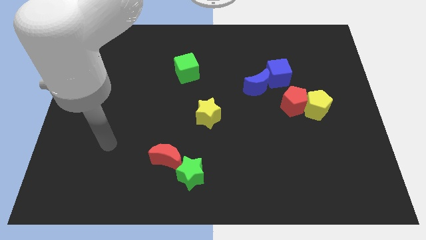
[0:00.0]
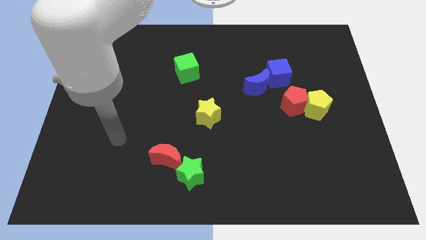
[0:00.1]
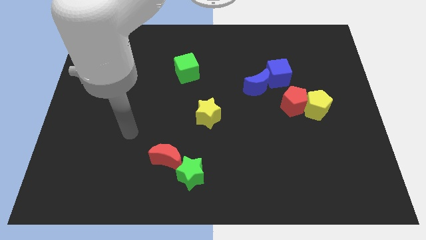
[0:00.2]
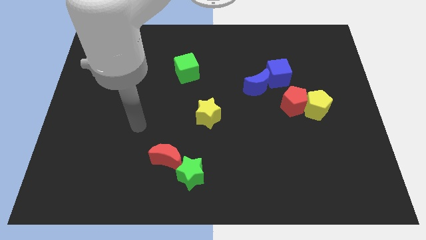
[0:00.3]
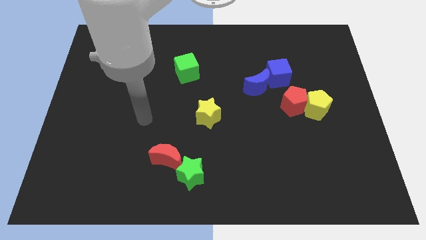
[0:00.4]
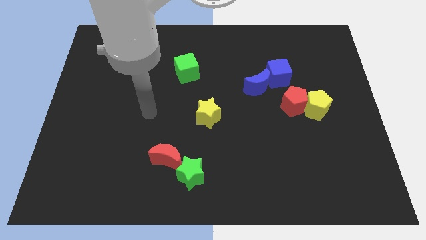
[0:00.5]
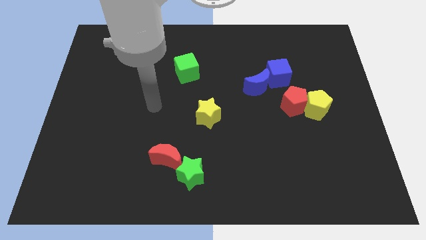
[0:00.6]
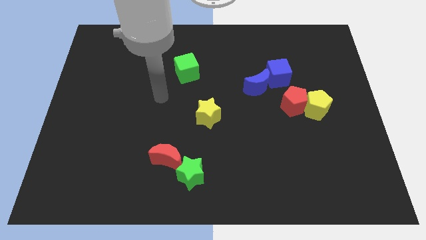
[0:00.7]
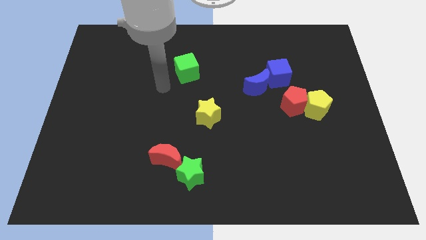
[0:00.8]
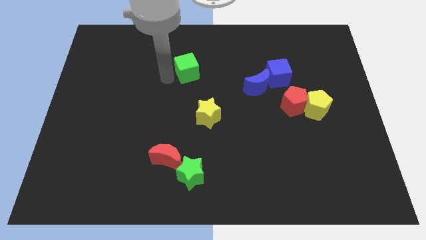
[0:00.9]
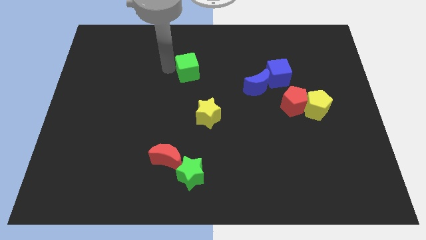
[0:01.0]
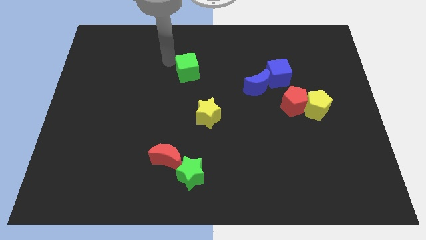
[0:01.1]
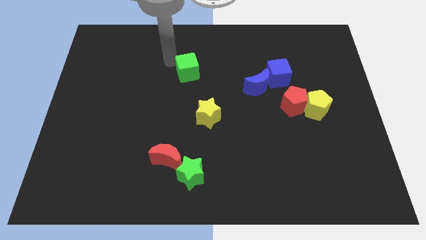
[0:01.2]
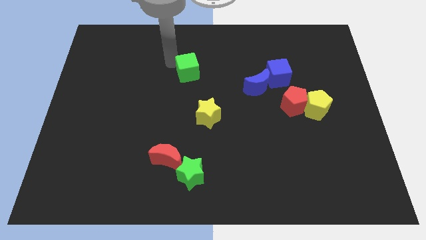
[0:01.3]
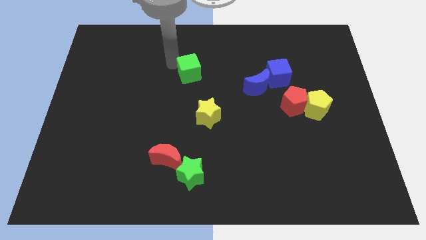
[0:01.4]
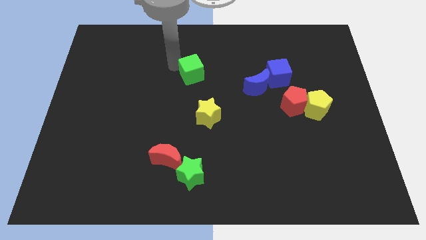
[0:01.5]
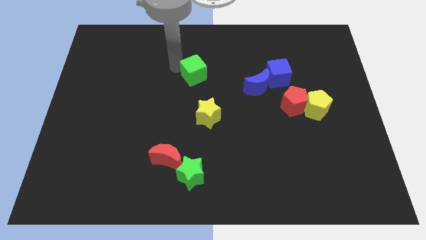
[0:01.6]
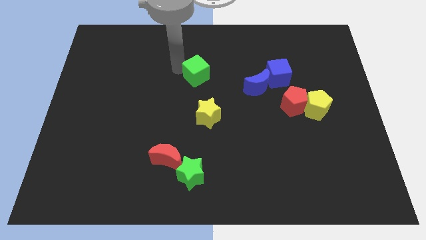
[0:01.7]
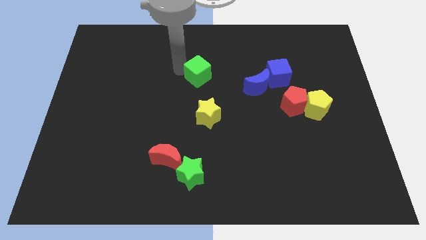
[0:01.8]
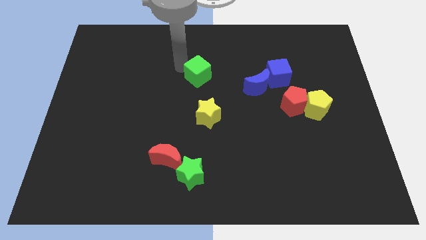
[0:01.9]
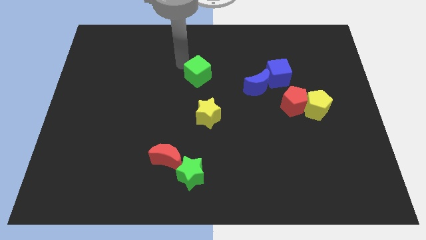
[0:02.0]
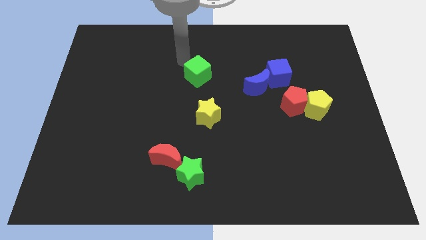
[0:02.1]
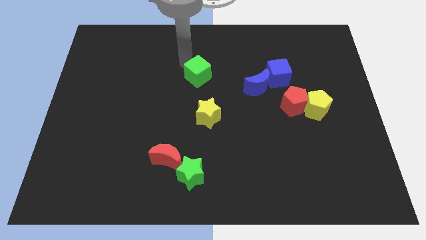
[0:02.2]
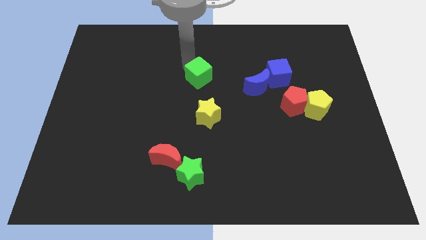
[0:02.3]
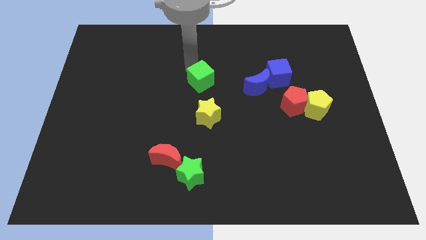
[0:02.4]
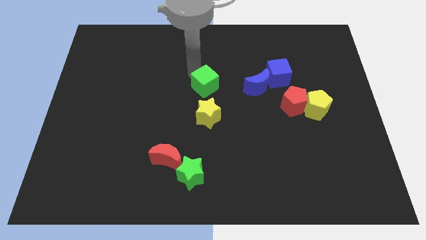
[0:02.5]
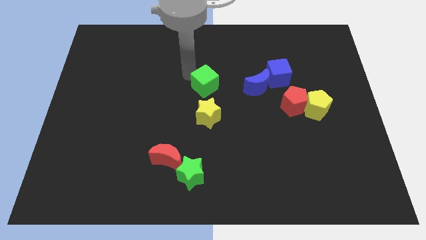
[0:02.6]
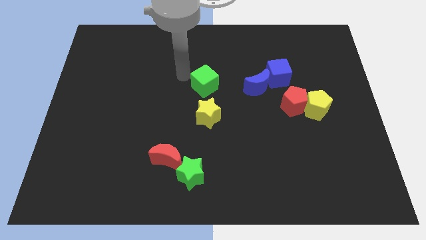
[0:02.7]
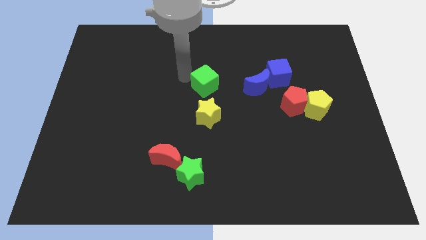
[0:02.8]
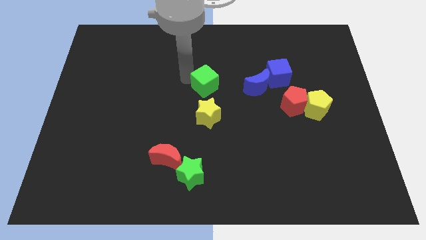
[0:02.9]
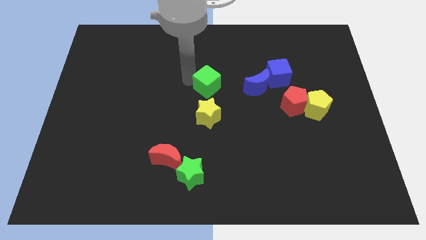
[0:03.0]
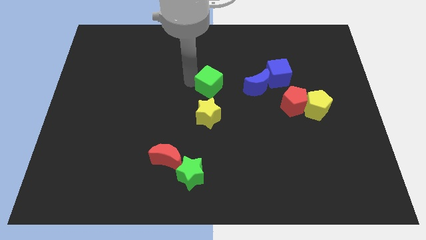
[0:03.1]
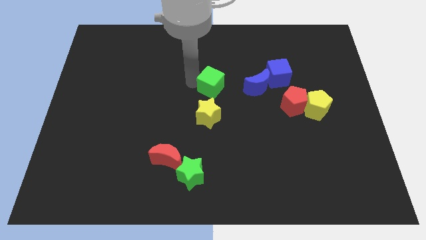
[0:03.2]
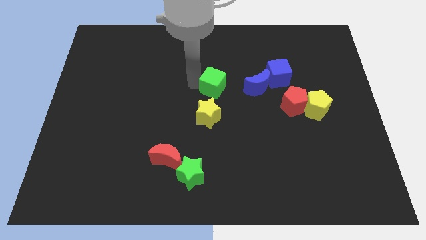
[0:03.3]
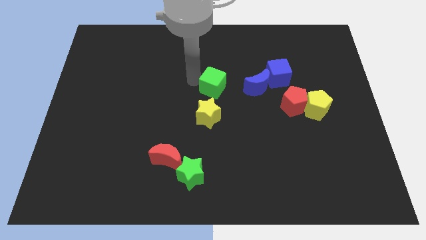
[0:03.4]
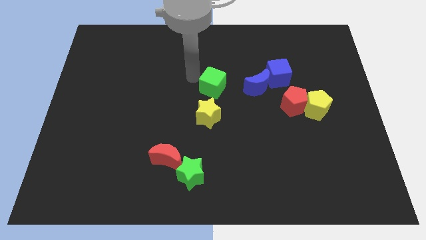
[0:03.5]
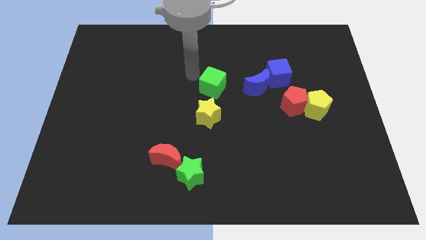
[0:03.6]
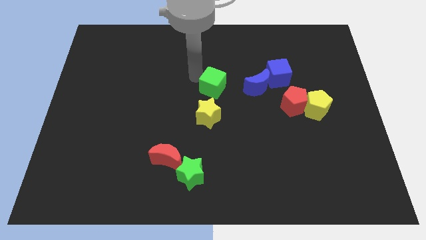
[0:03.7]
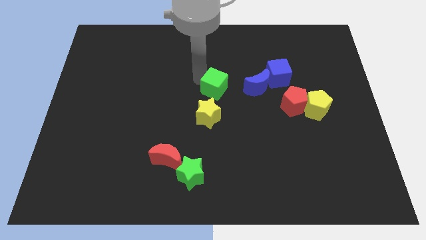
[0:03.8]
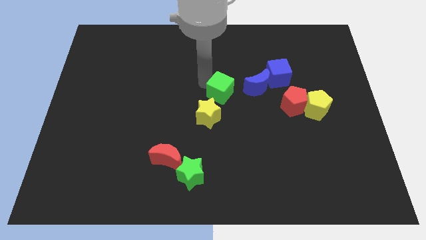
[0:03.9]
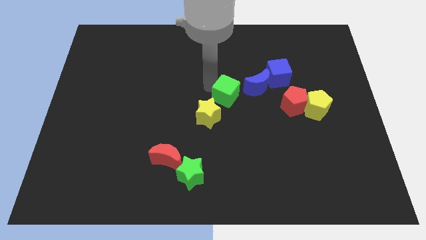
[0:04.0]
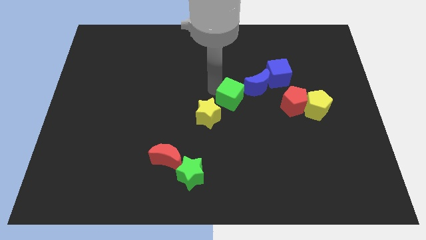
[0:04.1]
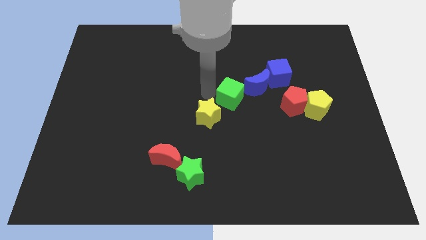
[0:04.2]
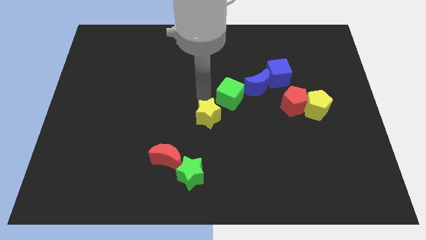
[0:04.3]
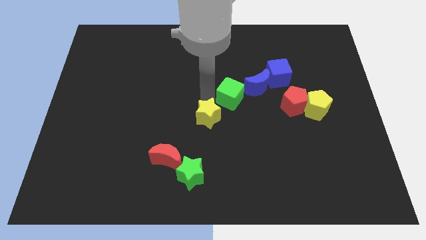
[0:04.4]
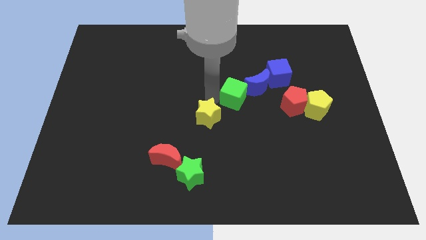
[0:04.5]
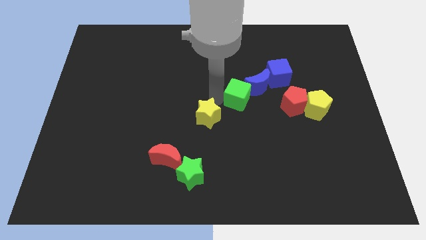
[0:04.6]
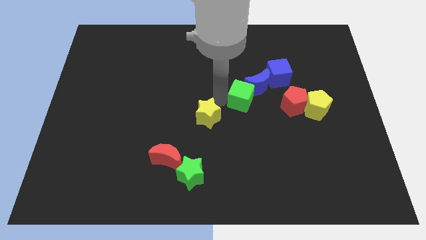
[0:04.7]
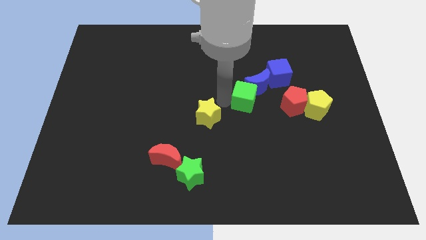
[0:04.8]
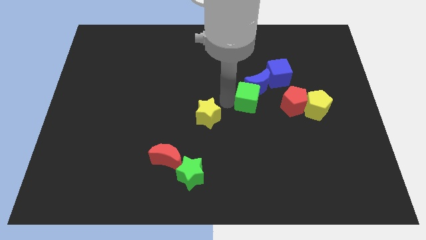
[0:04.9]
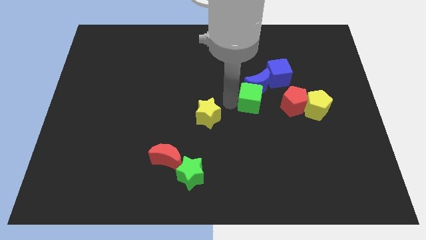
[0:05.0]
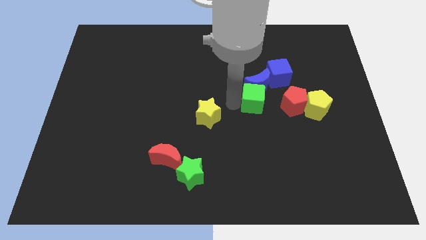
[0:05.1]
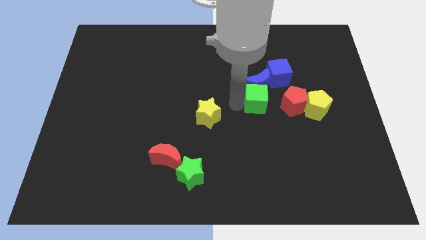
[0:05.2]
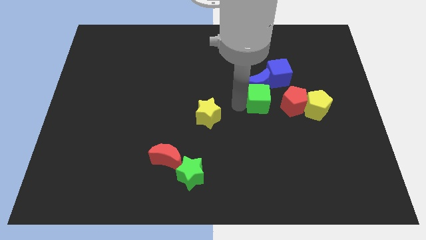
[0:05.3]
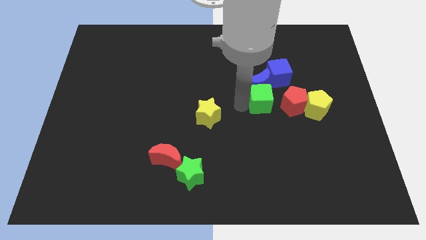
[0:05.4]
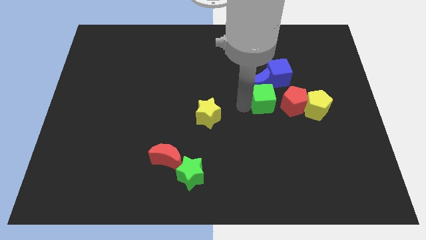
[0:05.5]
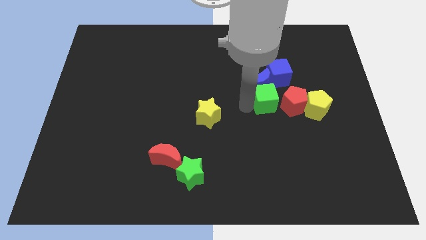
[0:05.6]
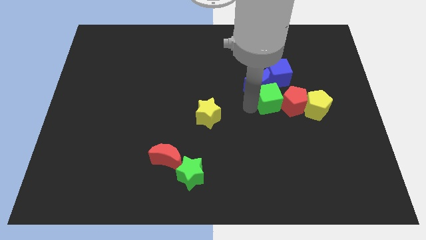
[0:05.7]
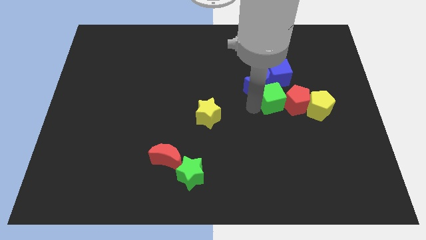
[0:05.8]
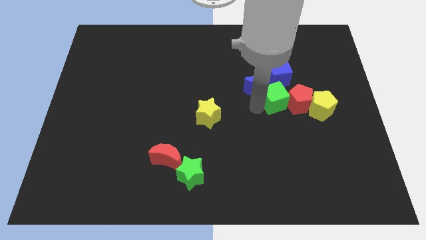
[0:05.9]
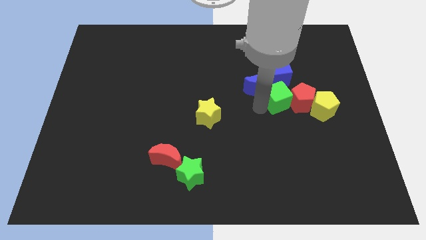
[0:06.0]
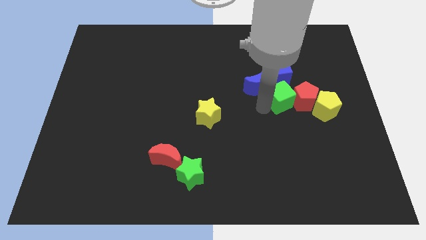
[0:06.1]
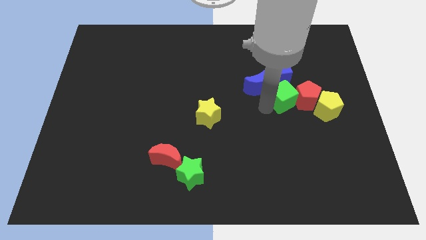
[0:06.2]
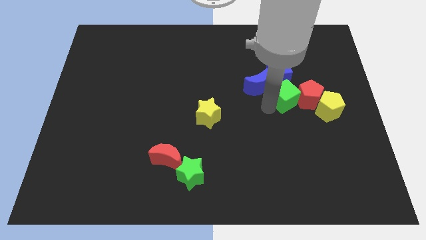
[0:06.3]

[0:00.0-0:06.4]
push the green cube right

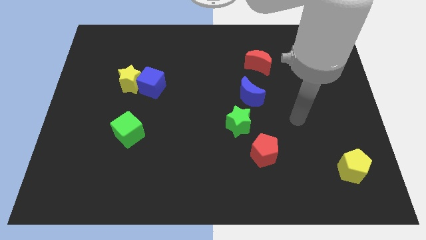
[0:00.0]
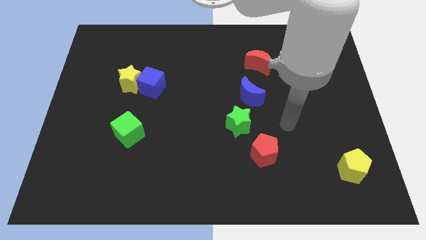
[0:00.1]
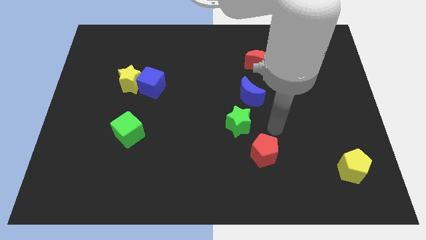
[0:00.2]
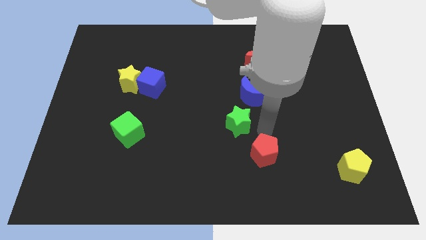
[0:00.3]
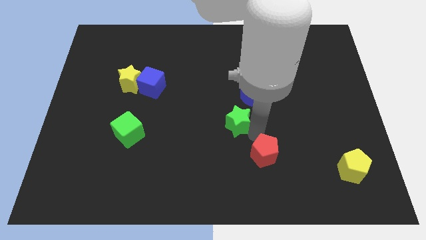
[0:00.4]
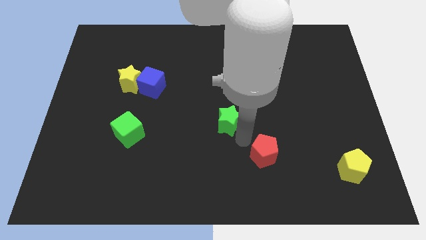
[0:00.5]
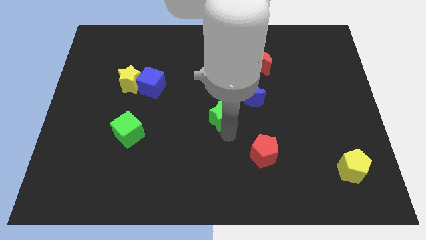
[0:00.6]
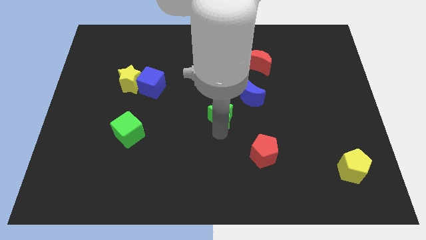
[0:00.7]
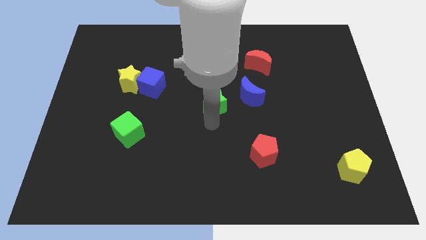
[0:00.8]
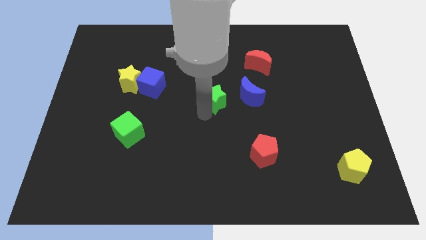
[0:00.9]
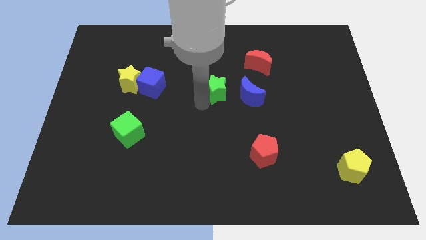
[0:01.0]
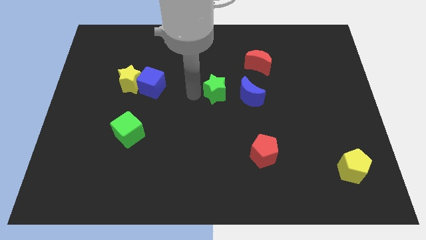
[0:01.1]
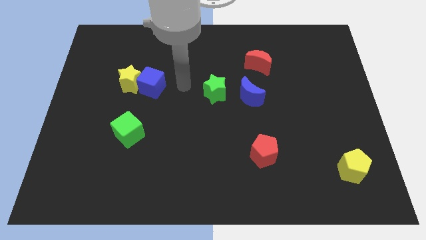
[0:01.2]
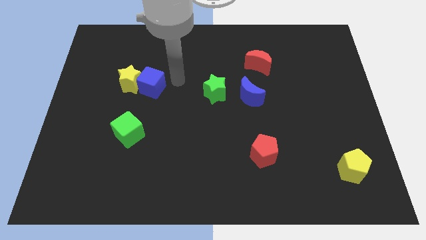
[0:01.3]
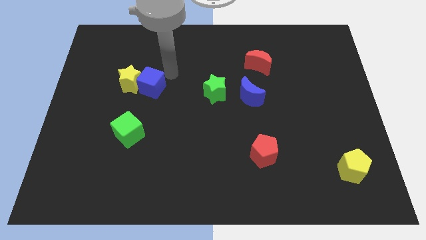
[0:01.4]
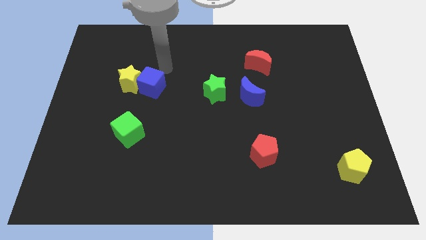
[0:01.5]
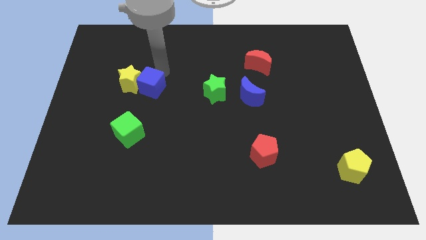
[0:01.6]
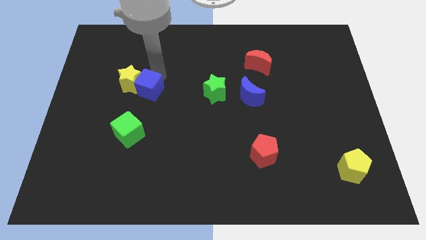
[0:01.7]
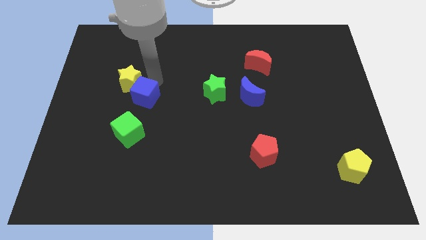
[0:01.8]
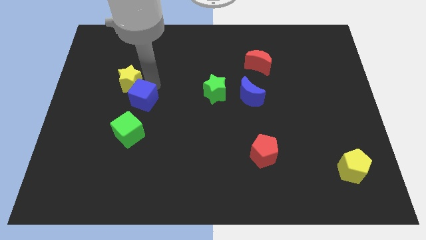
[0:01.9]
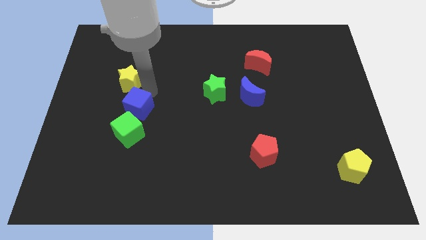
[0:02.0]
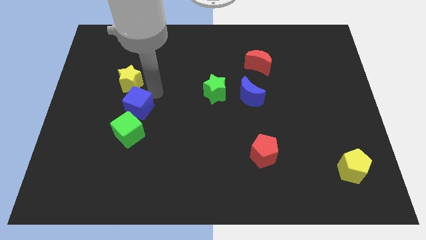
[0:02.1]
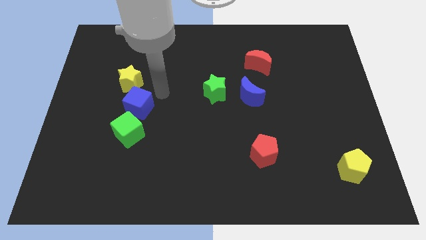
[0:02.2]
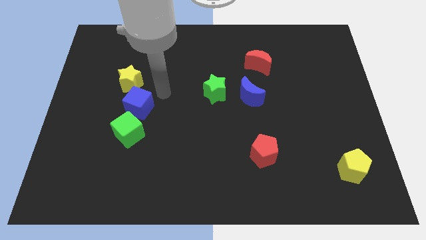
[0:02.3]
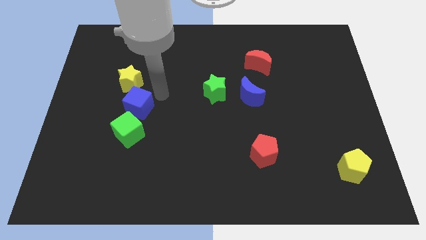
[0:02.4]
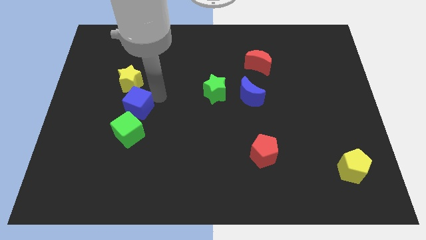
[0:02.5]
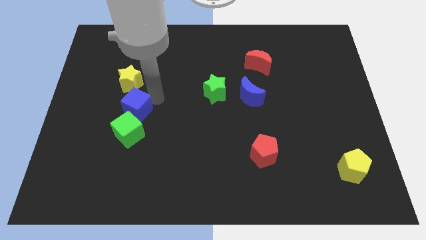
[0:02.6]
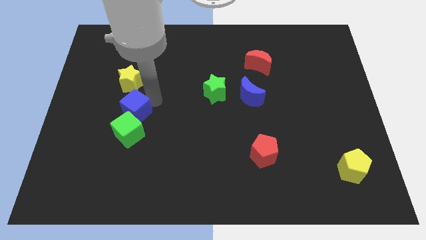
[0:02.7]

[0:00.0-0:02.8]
slide the blue cube a bit down and left
